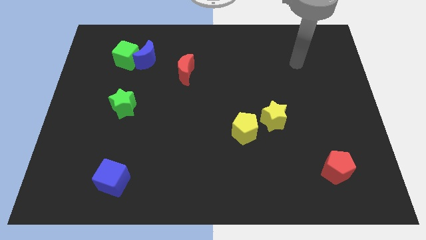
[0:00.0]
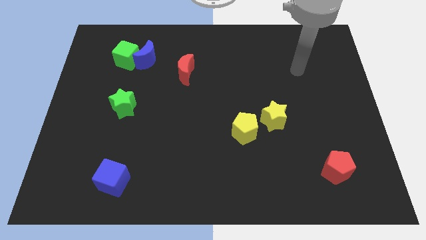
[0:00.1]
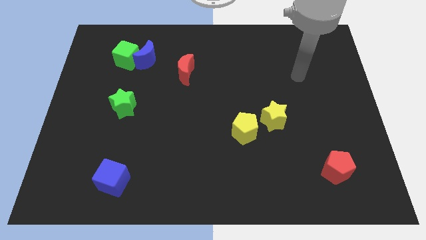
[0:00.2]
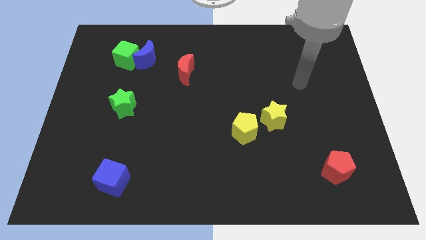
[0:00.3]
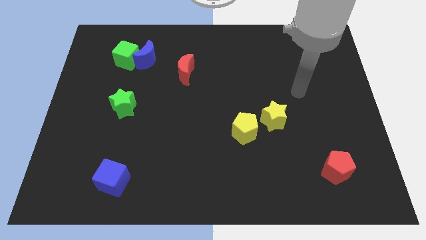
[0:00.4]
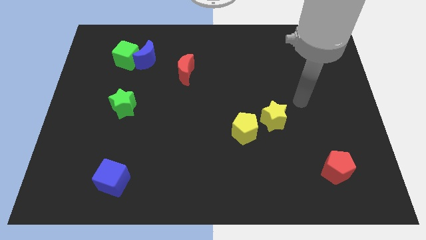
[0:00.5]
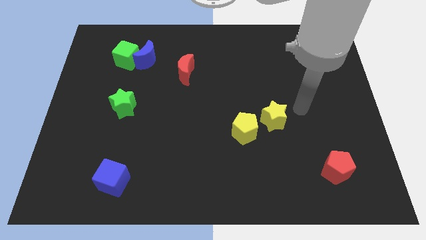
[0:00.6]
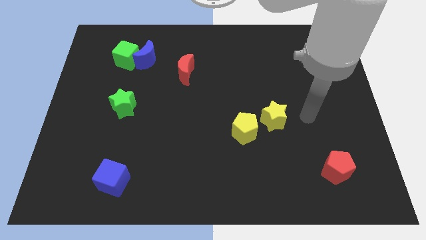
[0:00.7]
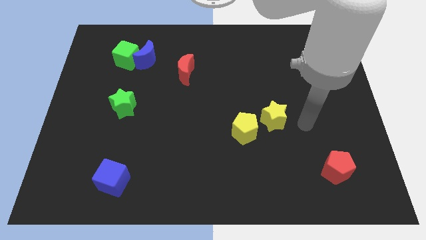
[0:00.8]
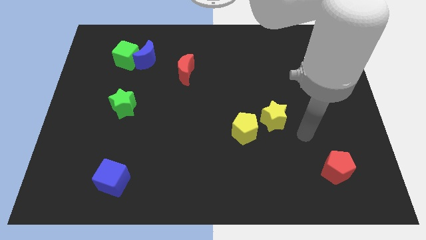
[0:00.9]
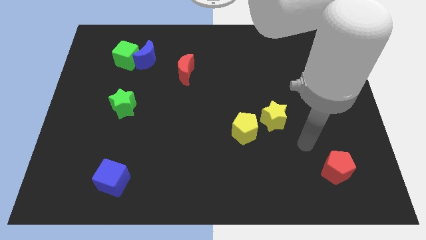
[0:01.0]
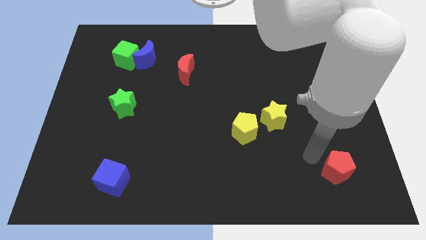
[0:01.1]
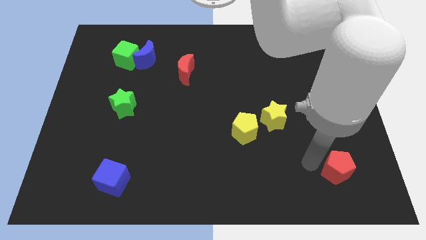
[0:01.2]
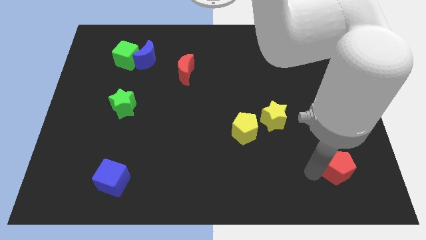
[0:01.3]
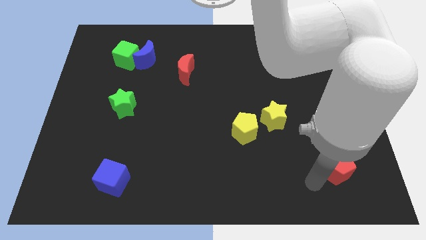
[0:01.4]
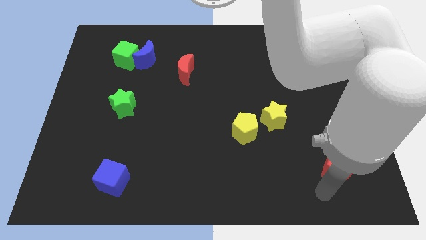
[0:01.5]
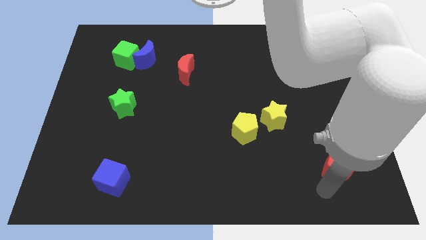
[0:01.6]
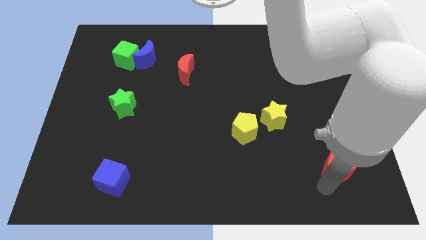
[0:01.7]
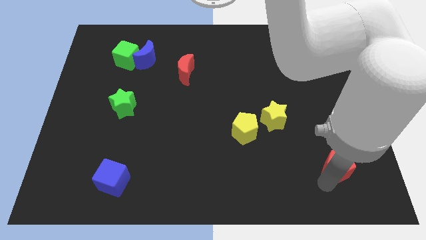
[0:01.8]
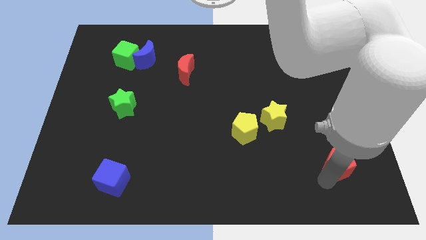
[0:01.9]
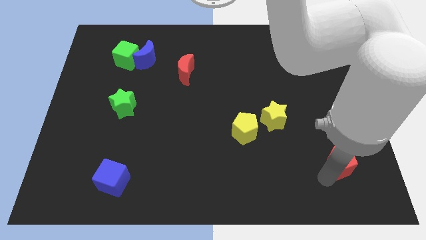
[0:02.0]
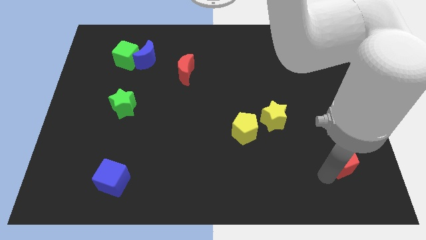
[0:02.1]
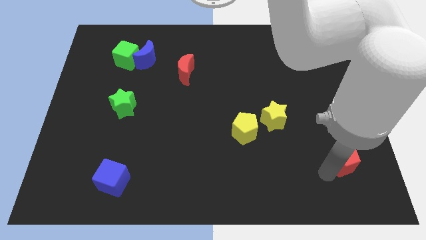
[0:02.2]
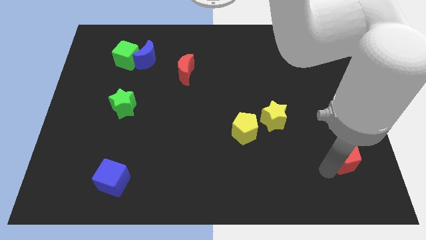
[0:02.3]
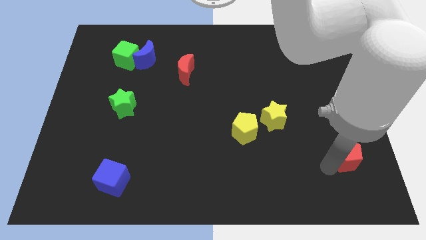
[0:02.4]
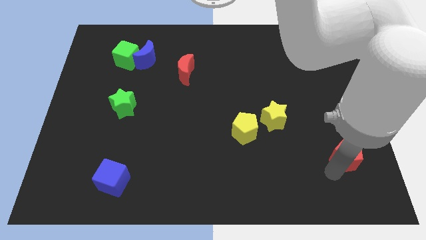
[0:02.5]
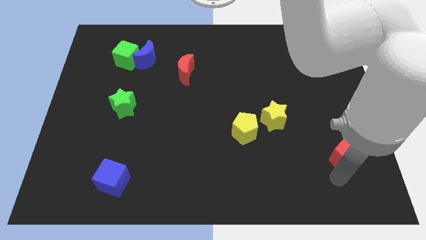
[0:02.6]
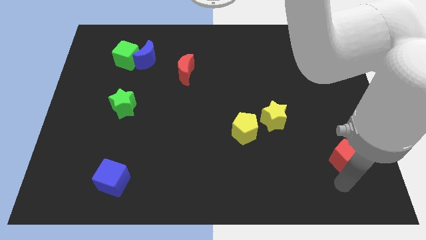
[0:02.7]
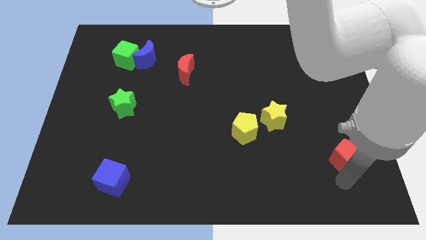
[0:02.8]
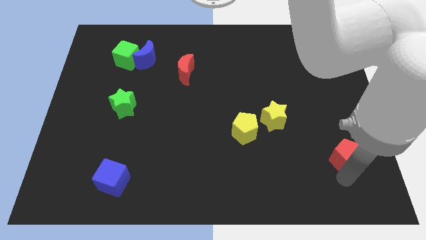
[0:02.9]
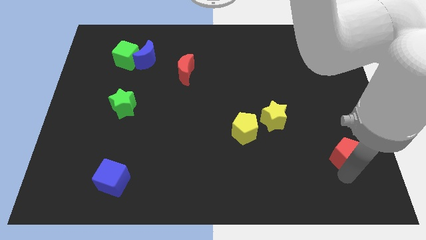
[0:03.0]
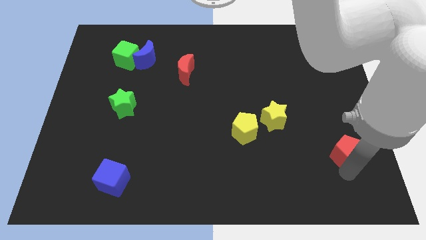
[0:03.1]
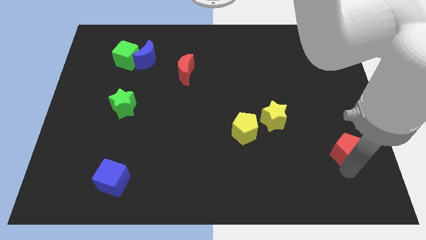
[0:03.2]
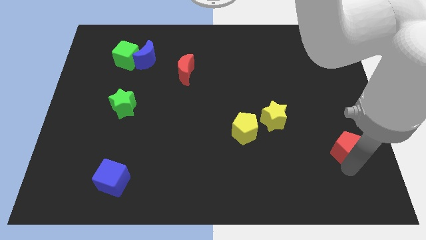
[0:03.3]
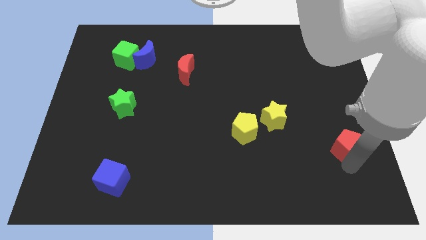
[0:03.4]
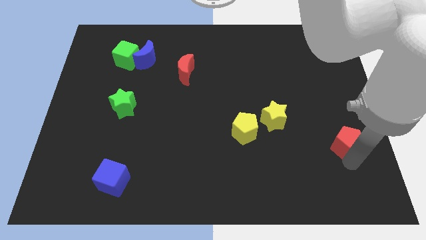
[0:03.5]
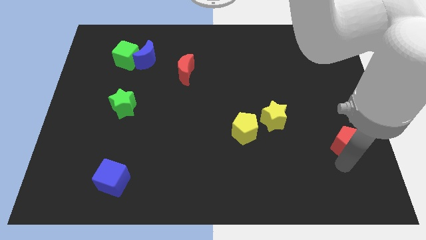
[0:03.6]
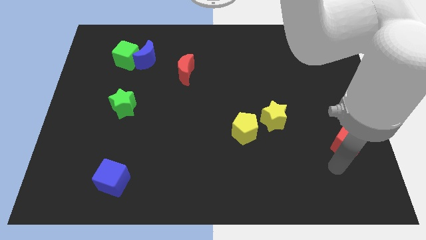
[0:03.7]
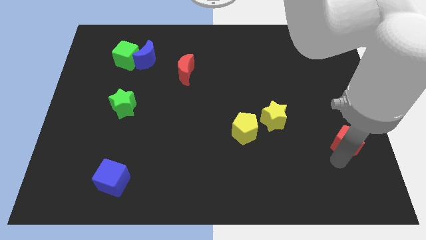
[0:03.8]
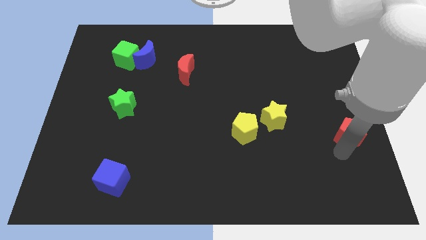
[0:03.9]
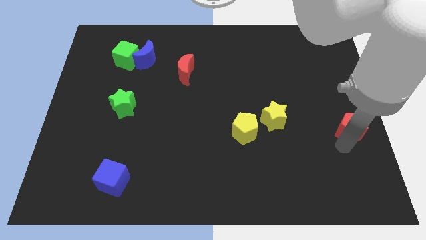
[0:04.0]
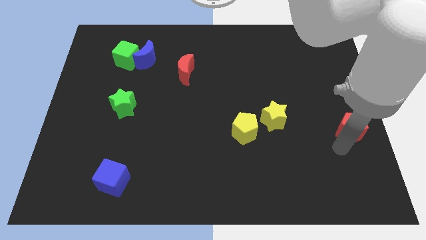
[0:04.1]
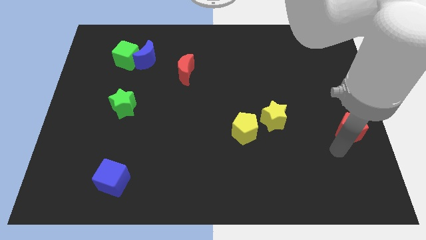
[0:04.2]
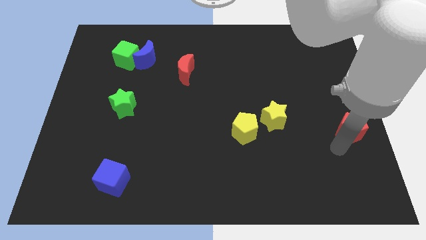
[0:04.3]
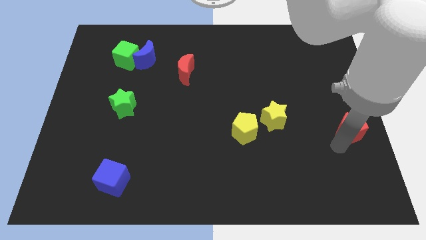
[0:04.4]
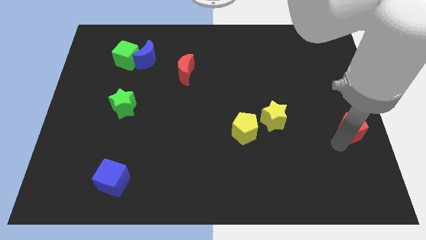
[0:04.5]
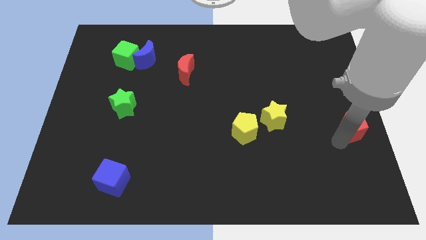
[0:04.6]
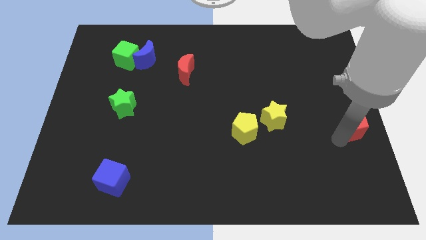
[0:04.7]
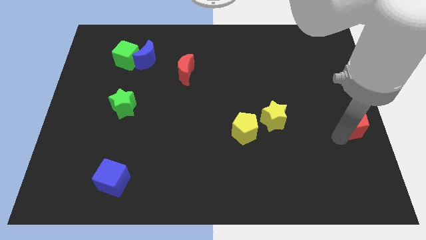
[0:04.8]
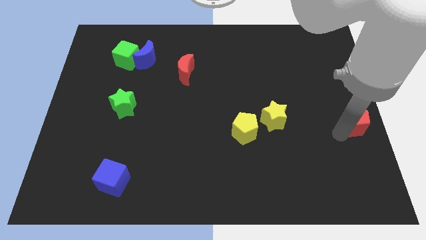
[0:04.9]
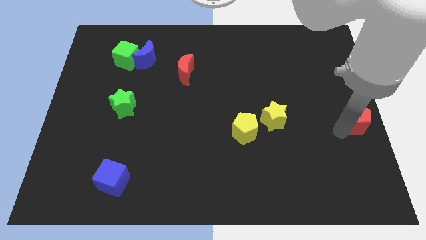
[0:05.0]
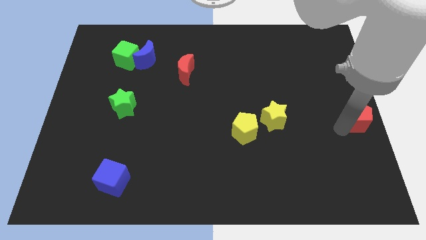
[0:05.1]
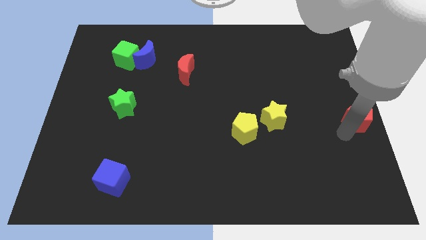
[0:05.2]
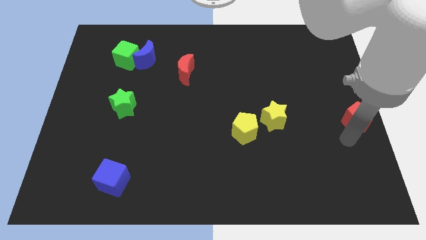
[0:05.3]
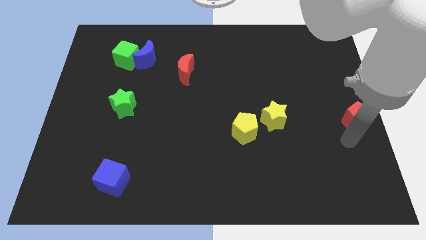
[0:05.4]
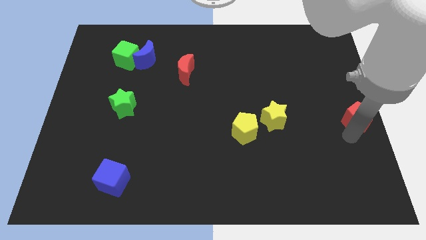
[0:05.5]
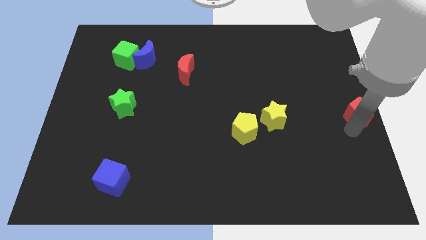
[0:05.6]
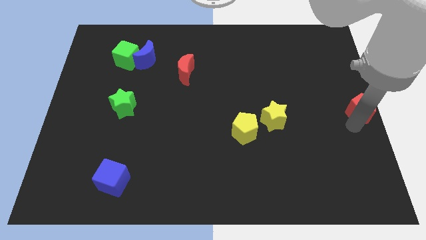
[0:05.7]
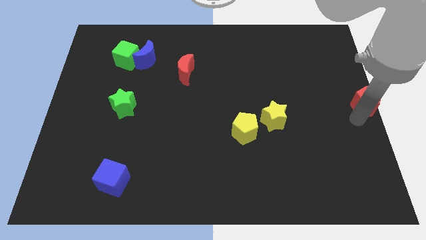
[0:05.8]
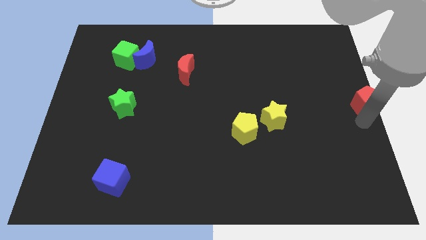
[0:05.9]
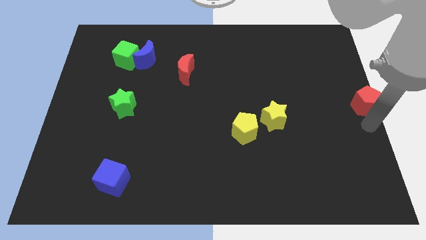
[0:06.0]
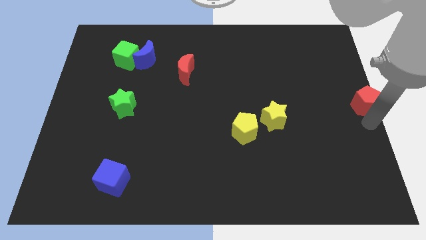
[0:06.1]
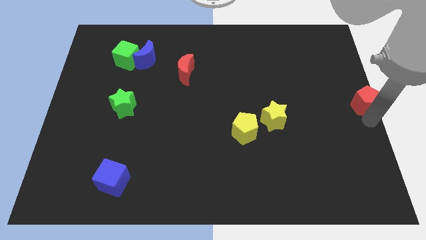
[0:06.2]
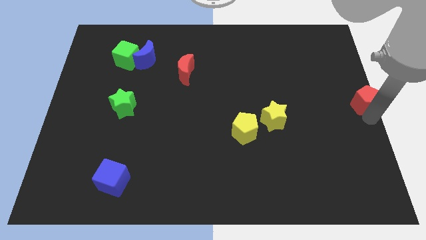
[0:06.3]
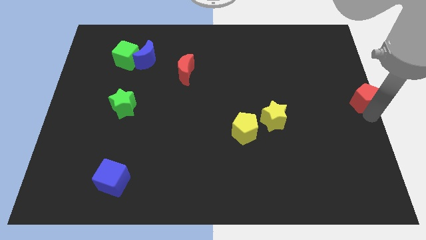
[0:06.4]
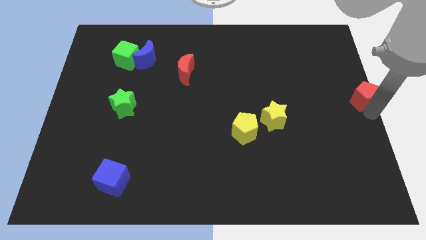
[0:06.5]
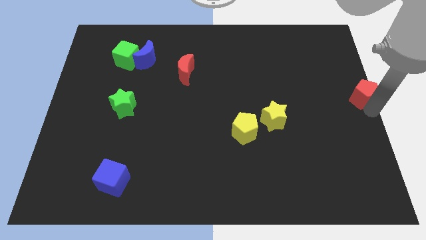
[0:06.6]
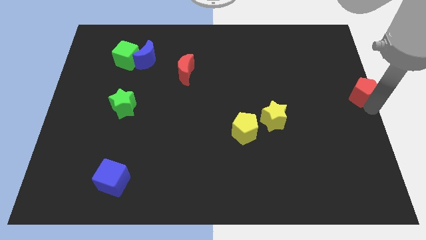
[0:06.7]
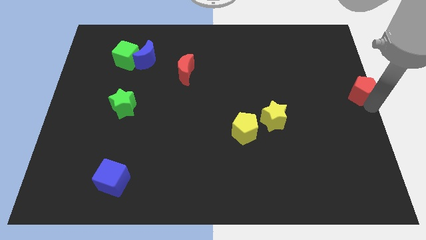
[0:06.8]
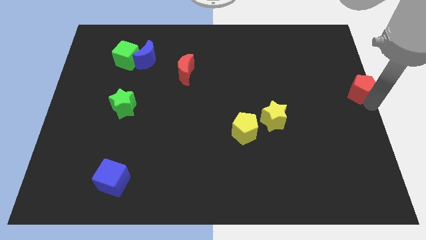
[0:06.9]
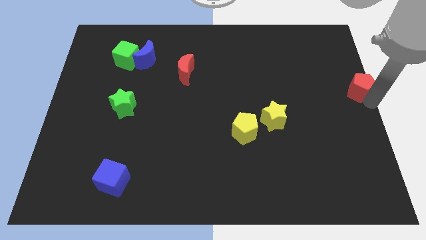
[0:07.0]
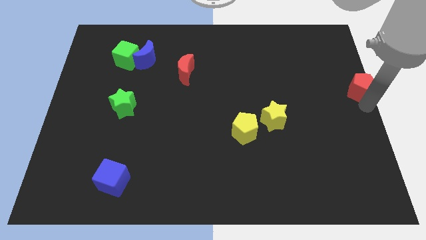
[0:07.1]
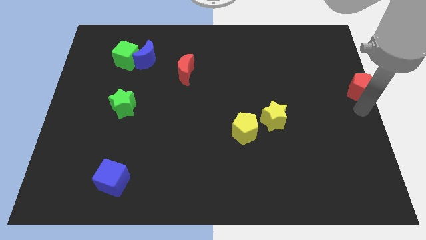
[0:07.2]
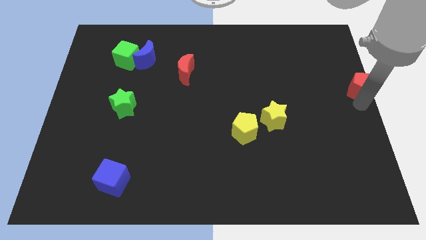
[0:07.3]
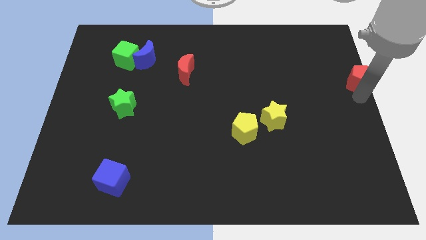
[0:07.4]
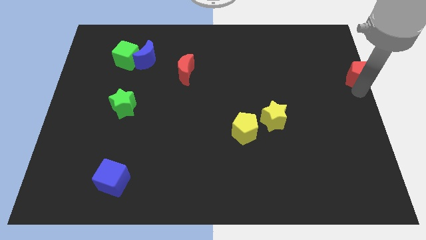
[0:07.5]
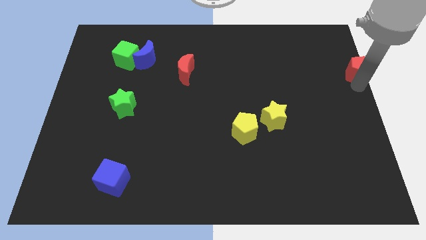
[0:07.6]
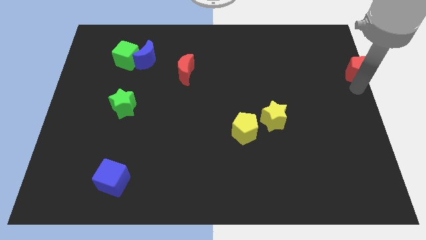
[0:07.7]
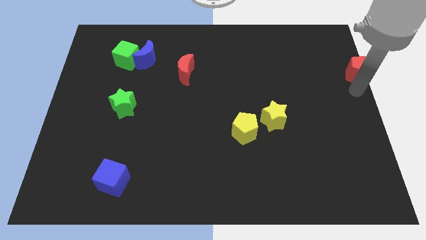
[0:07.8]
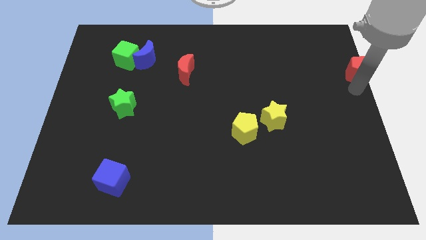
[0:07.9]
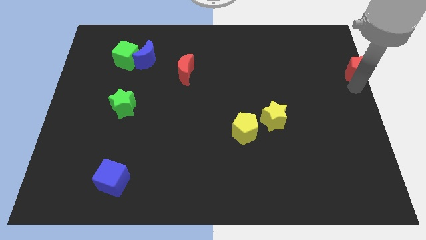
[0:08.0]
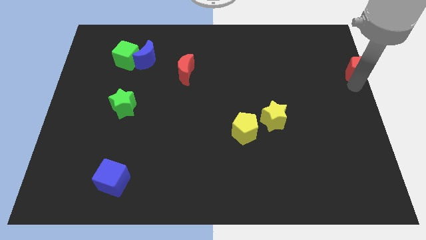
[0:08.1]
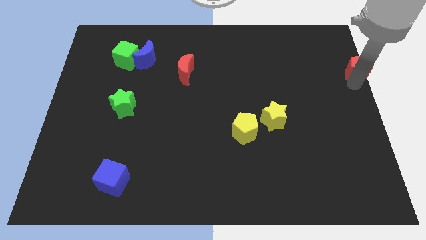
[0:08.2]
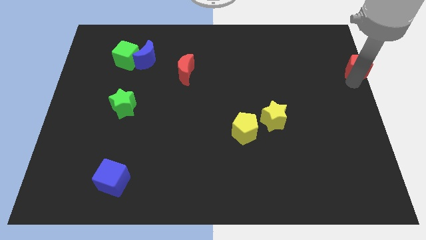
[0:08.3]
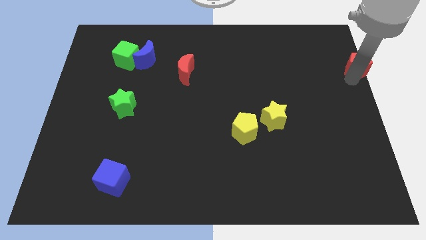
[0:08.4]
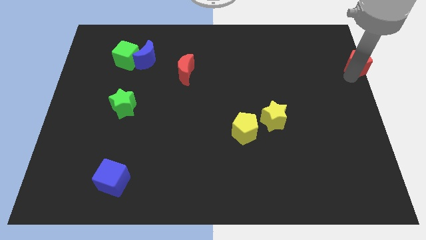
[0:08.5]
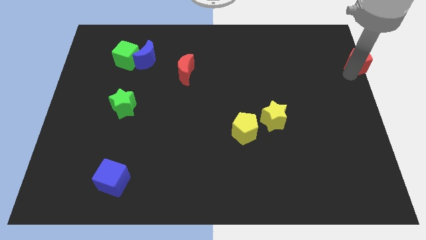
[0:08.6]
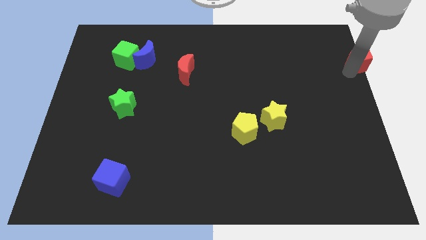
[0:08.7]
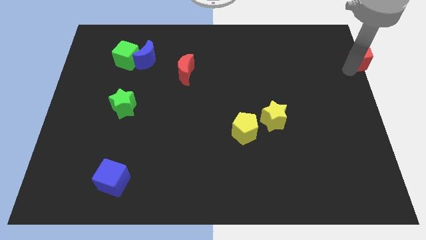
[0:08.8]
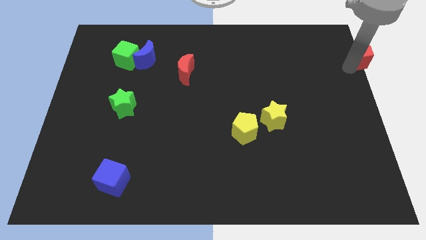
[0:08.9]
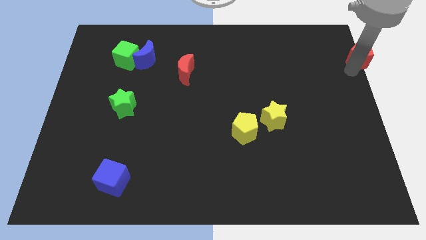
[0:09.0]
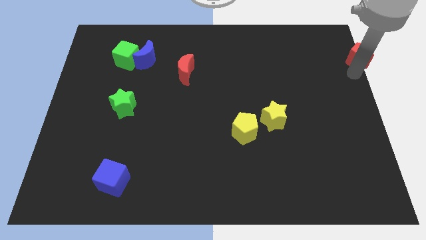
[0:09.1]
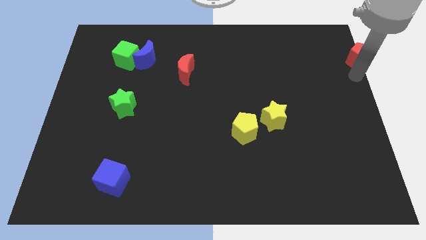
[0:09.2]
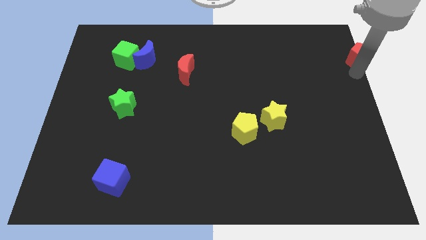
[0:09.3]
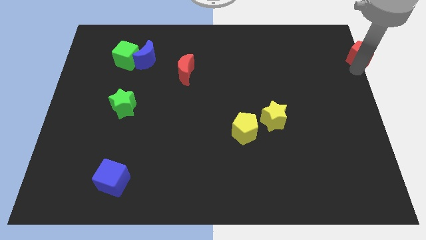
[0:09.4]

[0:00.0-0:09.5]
move the red pentagon to the upper right corner
